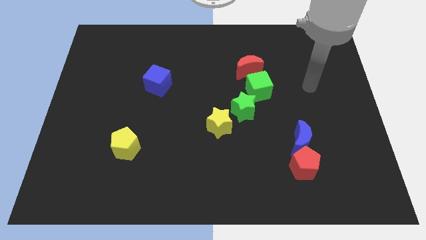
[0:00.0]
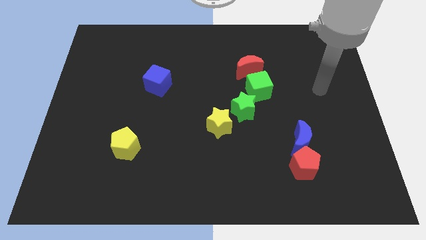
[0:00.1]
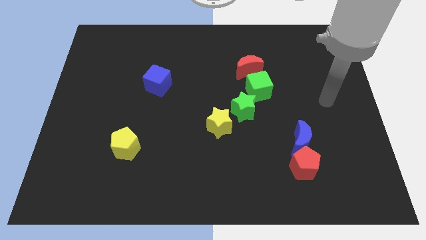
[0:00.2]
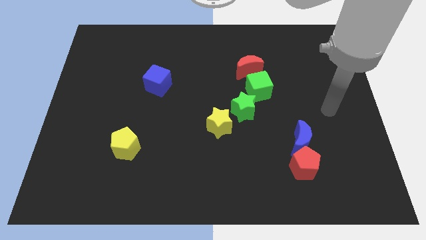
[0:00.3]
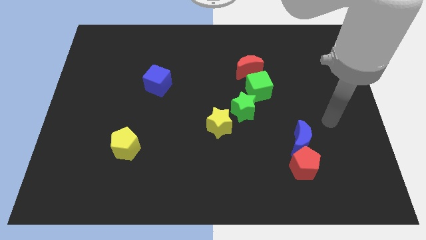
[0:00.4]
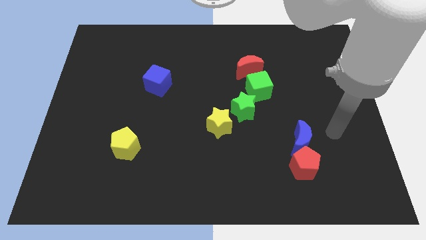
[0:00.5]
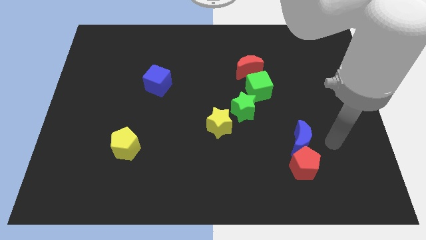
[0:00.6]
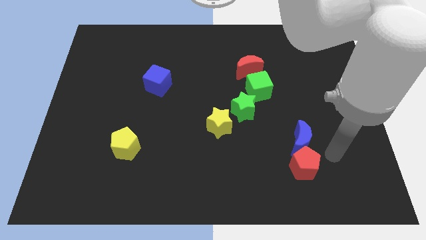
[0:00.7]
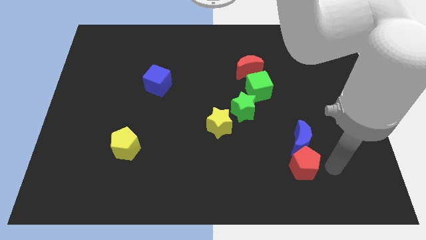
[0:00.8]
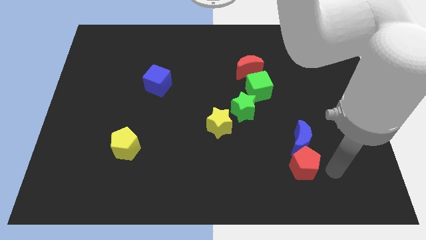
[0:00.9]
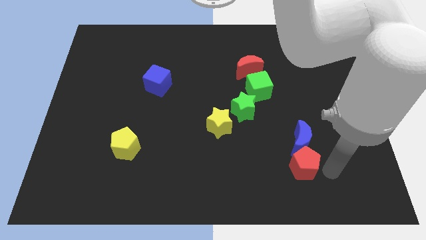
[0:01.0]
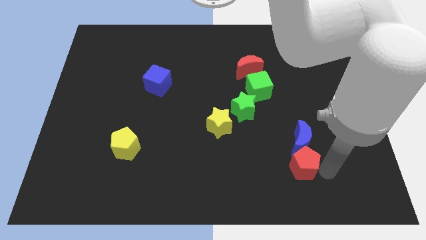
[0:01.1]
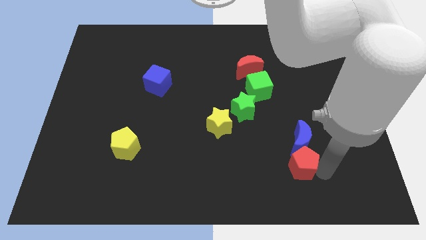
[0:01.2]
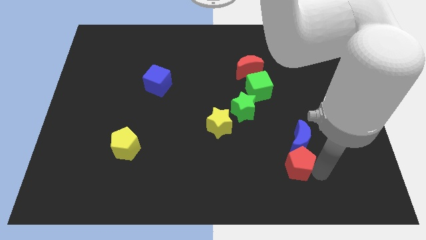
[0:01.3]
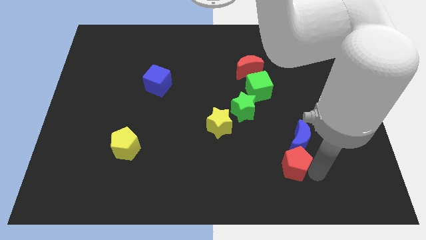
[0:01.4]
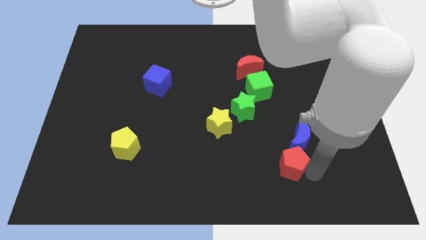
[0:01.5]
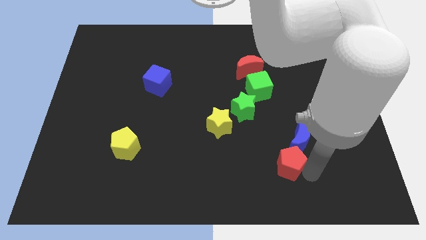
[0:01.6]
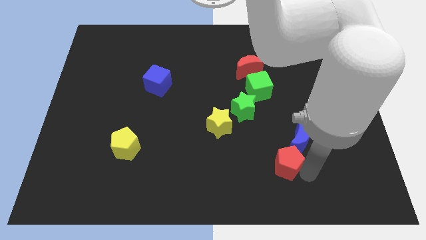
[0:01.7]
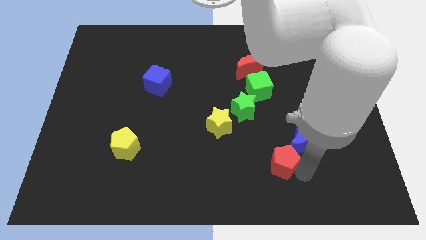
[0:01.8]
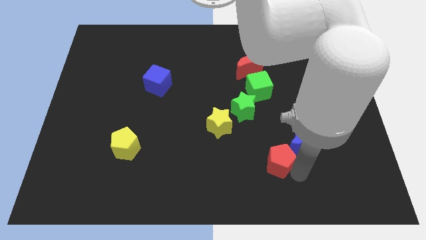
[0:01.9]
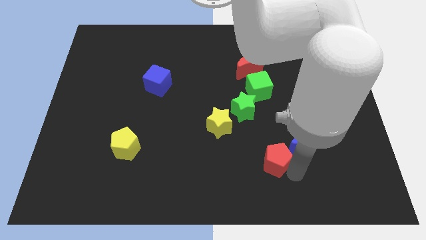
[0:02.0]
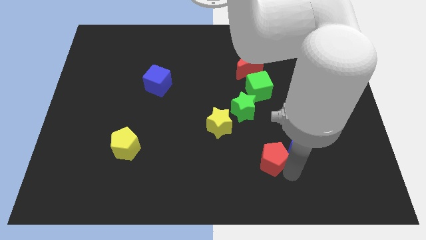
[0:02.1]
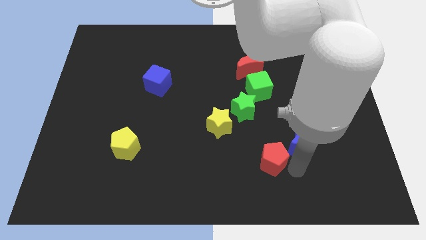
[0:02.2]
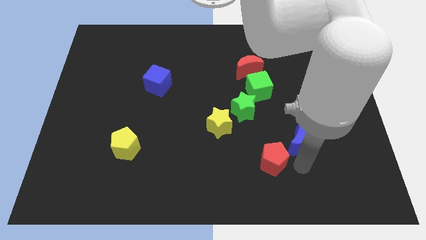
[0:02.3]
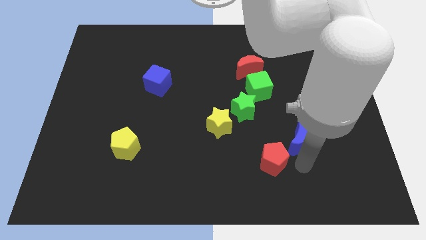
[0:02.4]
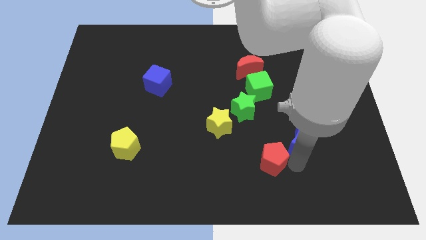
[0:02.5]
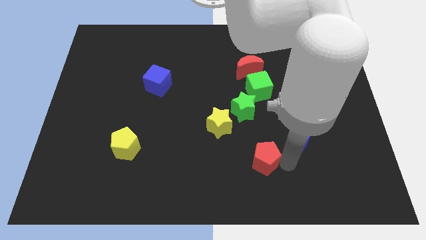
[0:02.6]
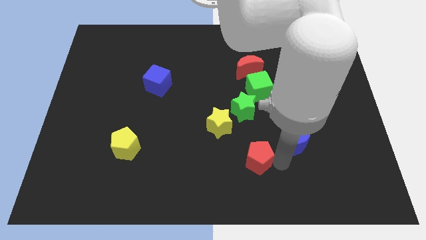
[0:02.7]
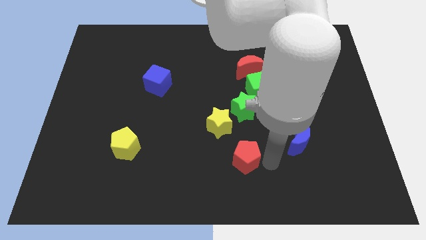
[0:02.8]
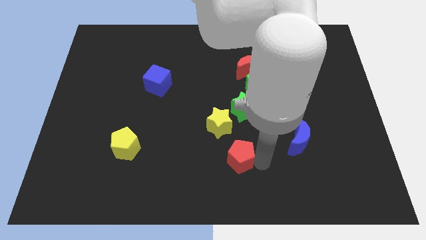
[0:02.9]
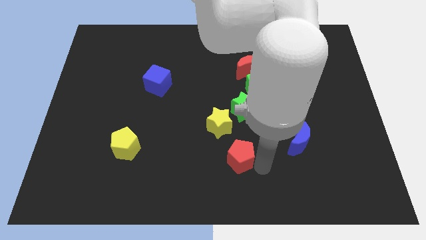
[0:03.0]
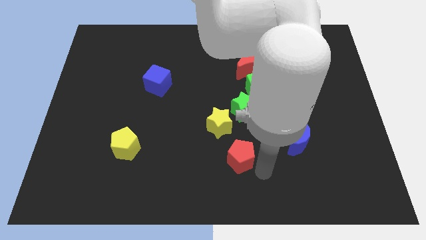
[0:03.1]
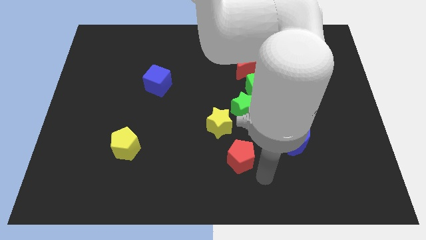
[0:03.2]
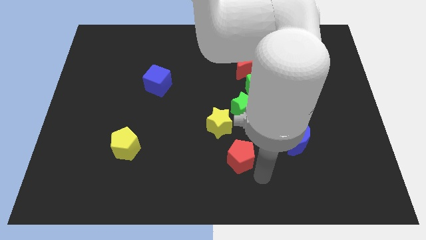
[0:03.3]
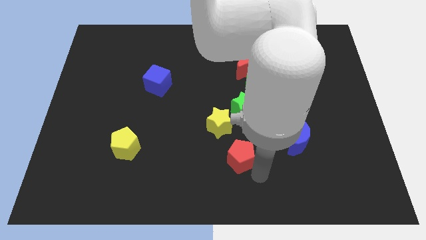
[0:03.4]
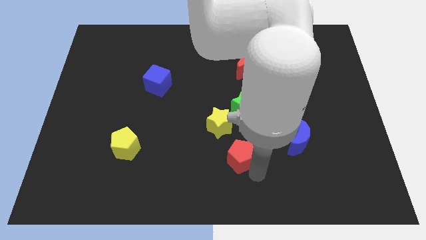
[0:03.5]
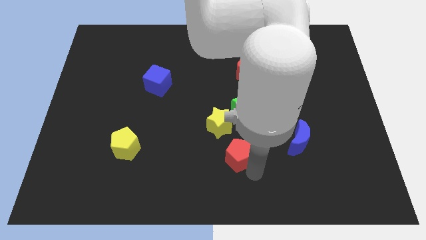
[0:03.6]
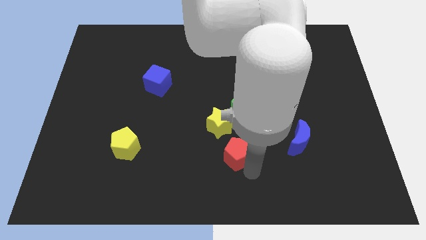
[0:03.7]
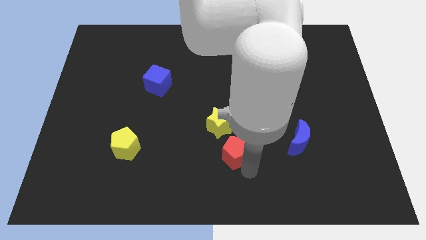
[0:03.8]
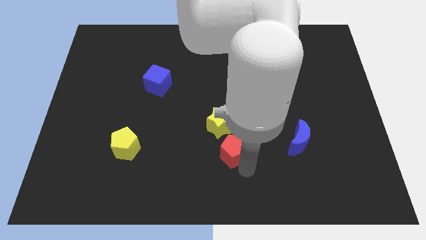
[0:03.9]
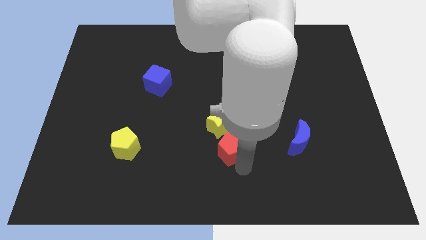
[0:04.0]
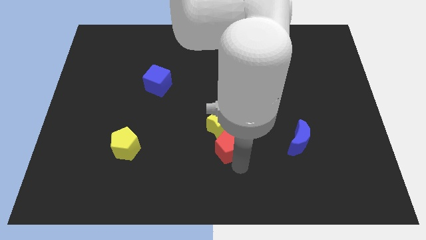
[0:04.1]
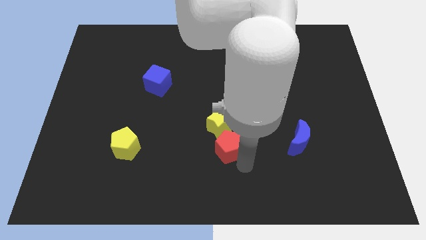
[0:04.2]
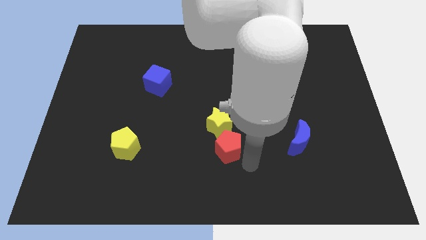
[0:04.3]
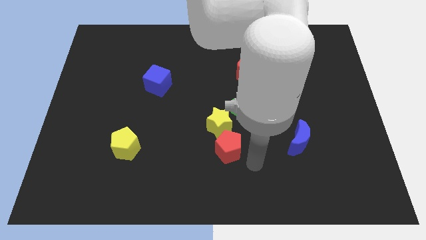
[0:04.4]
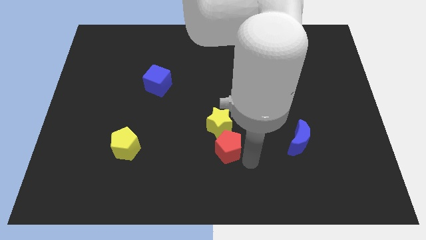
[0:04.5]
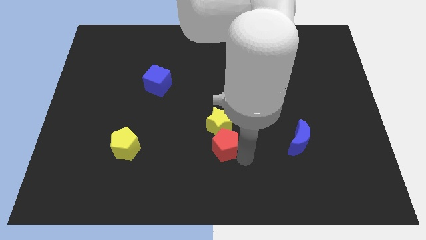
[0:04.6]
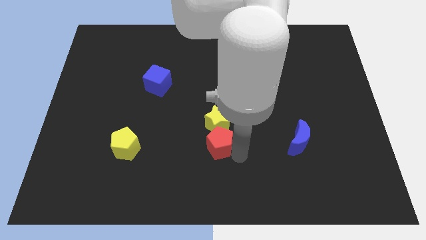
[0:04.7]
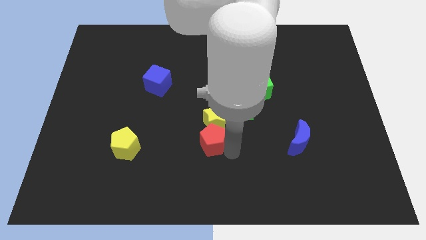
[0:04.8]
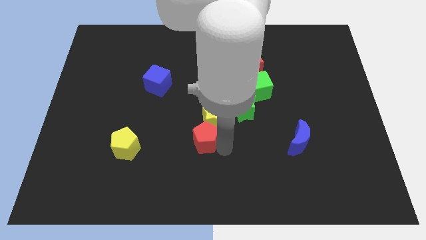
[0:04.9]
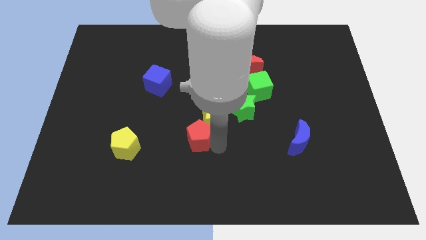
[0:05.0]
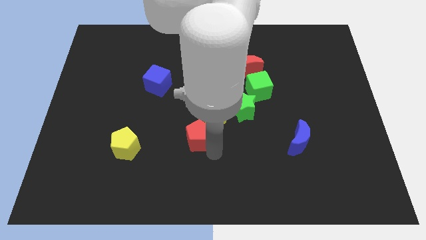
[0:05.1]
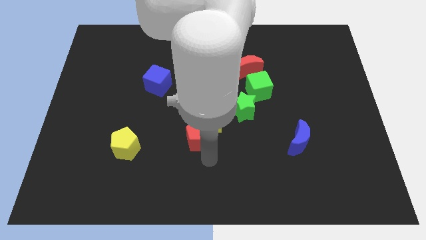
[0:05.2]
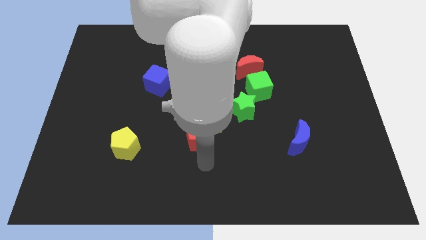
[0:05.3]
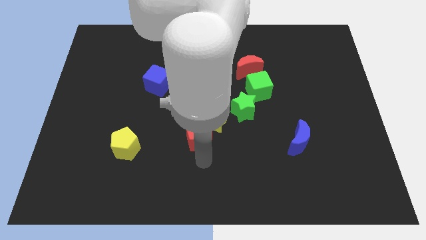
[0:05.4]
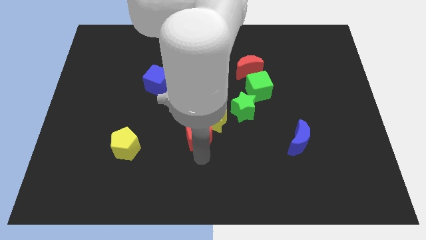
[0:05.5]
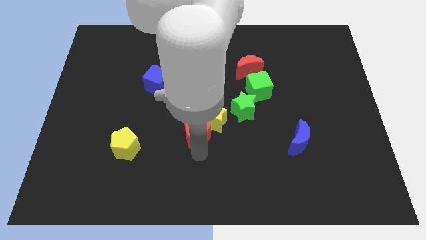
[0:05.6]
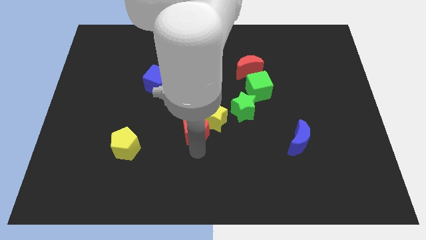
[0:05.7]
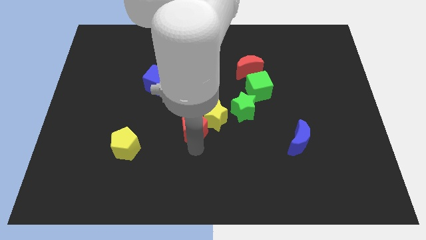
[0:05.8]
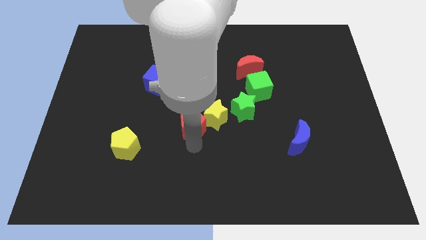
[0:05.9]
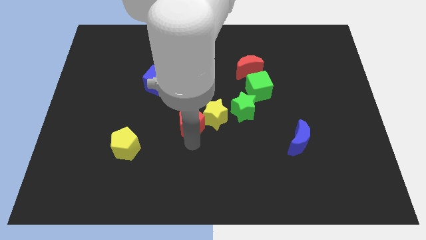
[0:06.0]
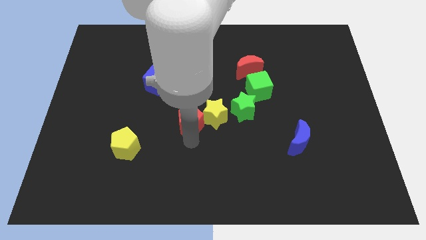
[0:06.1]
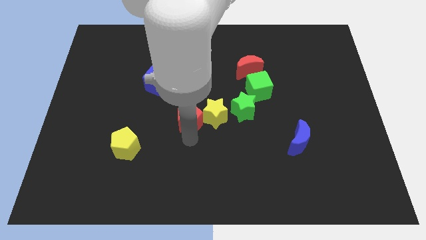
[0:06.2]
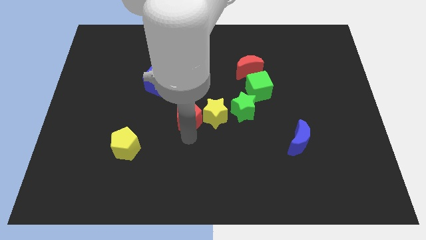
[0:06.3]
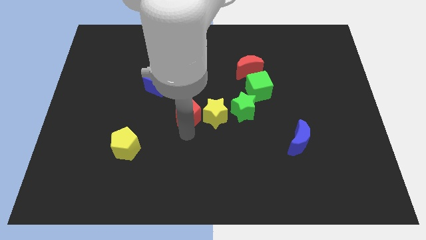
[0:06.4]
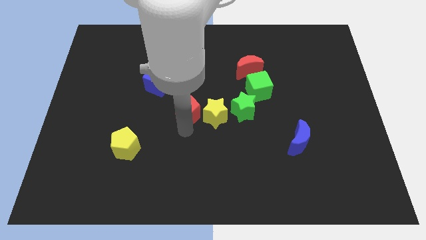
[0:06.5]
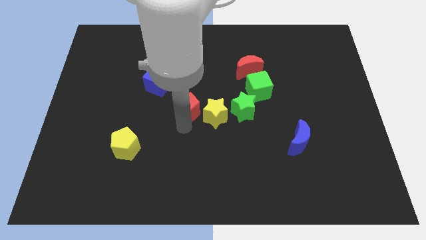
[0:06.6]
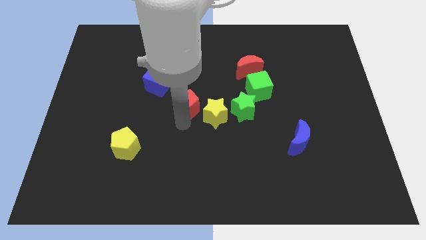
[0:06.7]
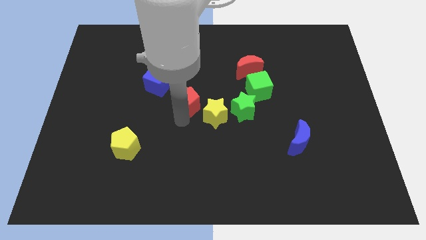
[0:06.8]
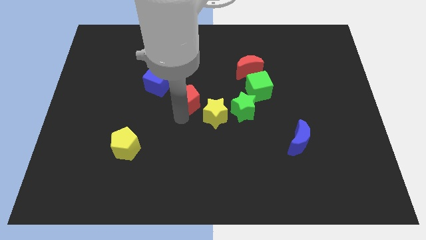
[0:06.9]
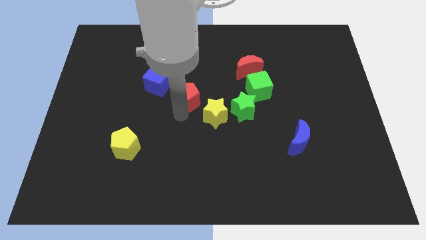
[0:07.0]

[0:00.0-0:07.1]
slide the red pentagon to the right side of the blue cube
